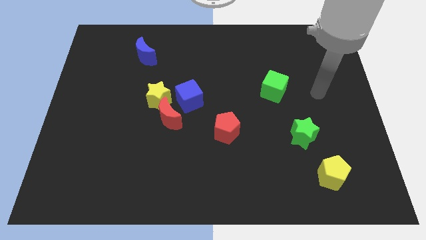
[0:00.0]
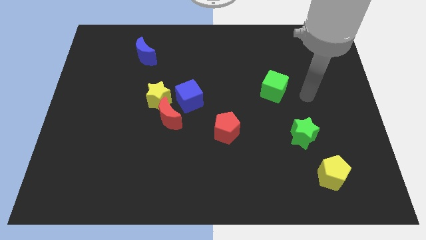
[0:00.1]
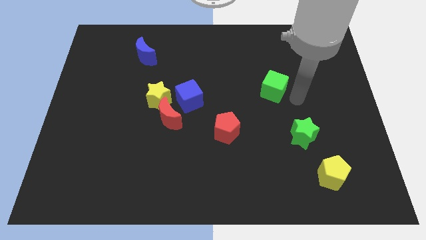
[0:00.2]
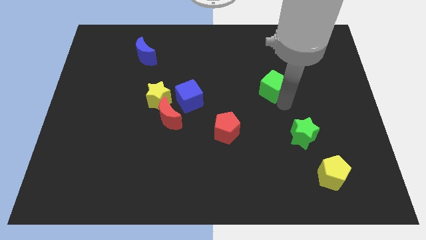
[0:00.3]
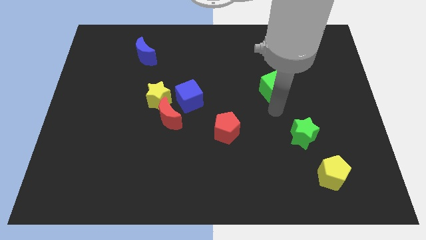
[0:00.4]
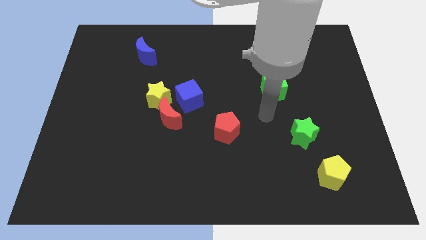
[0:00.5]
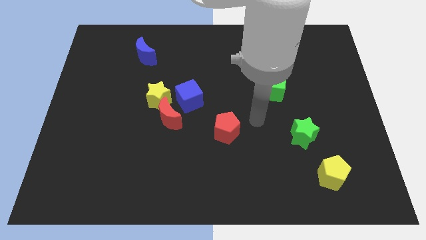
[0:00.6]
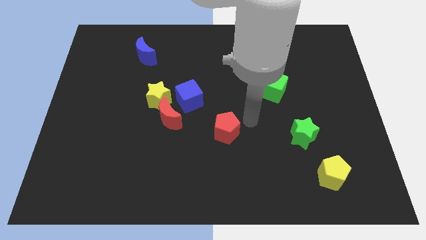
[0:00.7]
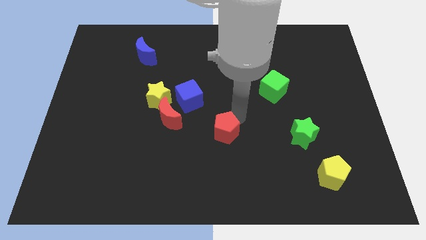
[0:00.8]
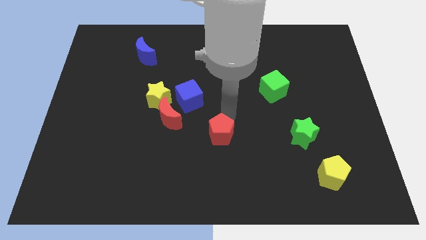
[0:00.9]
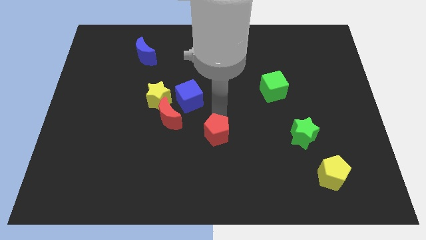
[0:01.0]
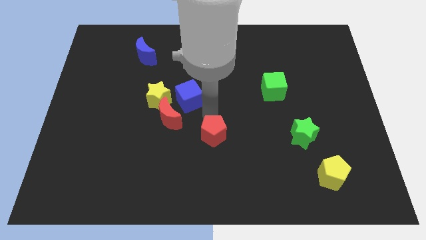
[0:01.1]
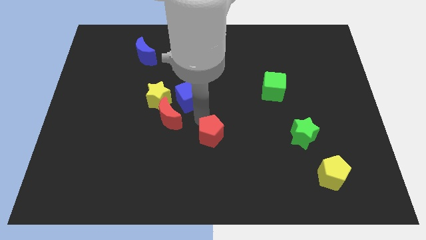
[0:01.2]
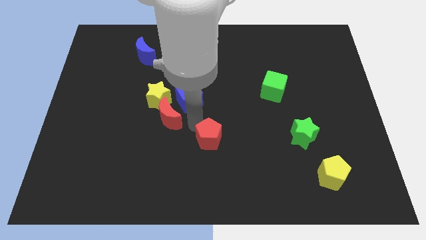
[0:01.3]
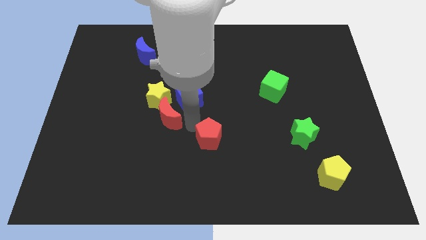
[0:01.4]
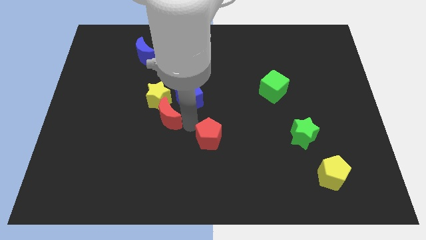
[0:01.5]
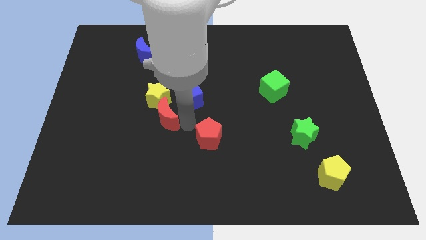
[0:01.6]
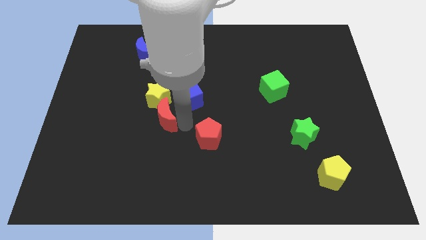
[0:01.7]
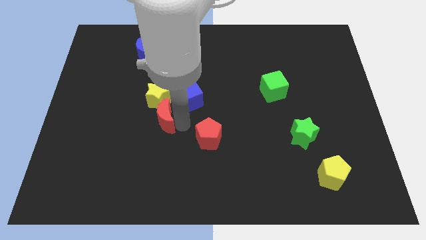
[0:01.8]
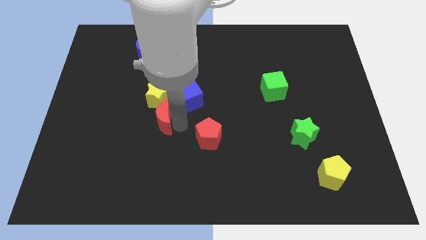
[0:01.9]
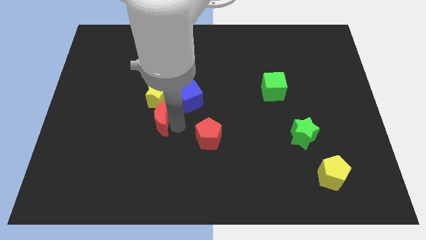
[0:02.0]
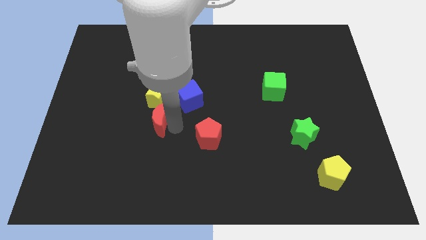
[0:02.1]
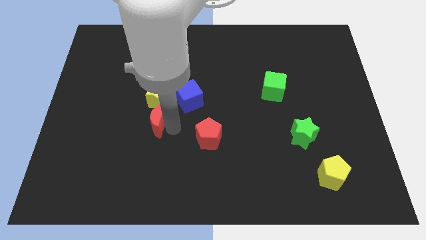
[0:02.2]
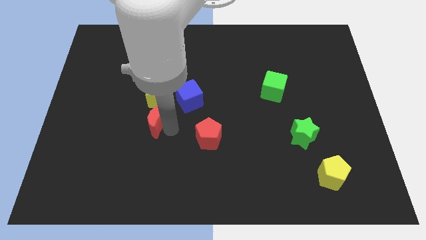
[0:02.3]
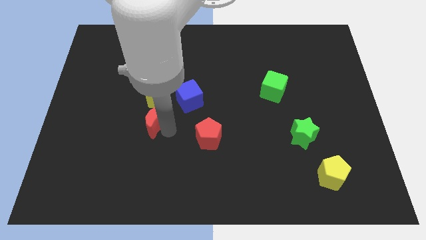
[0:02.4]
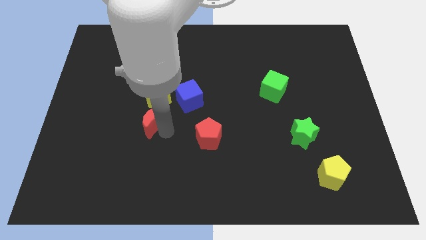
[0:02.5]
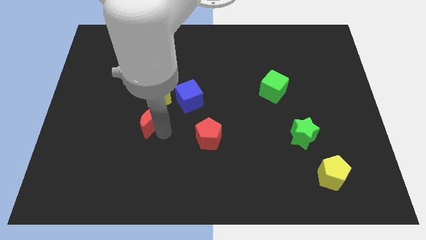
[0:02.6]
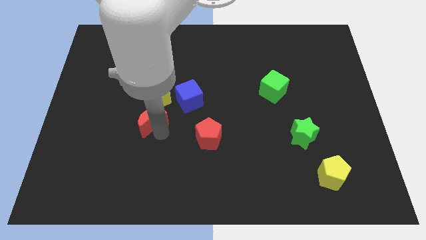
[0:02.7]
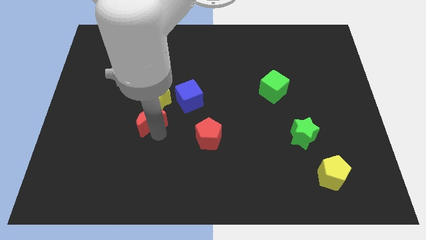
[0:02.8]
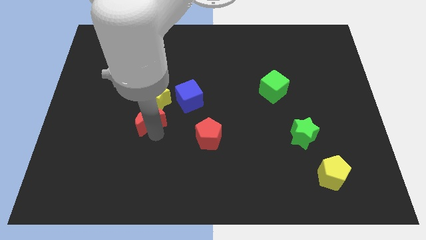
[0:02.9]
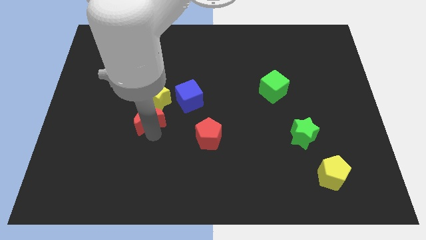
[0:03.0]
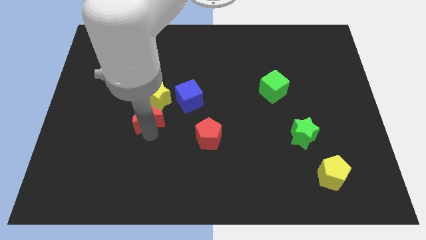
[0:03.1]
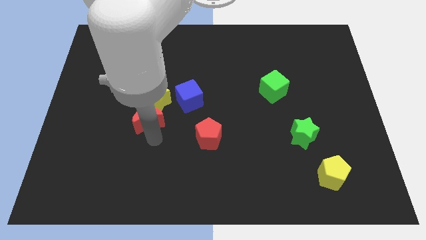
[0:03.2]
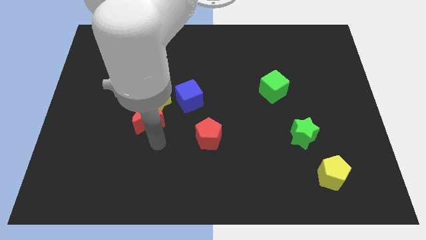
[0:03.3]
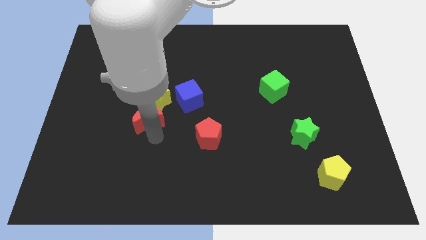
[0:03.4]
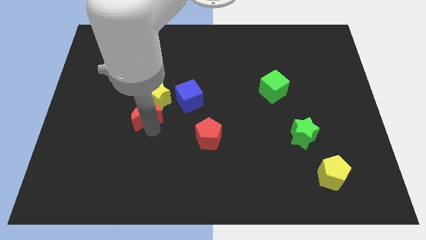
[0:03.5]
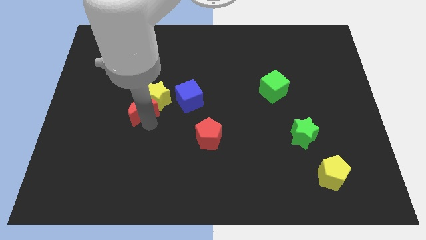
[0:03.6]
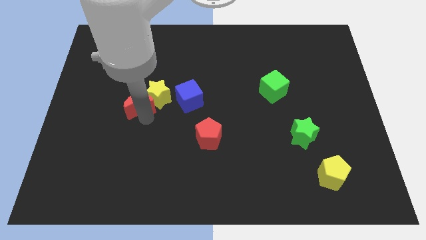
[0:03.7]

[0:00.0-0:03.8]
slide the red moon slightly up and then to the left

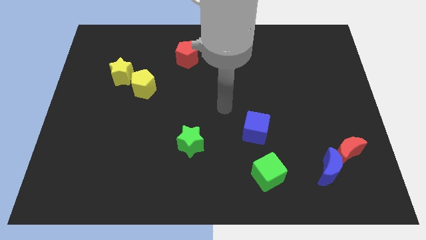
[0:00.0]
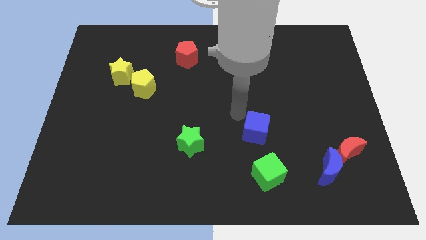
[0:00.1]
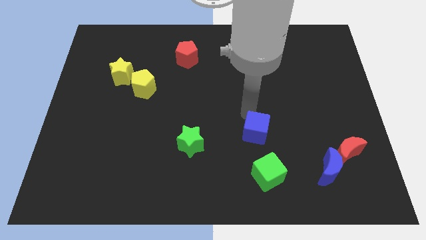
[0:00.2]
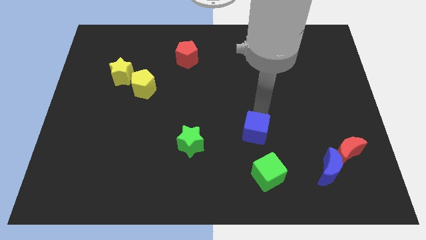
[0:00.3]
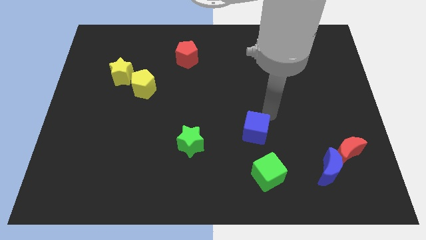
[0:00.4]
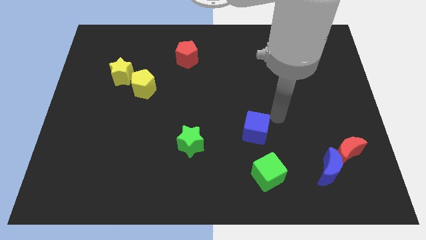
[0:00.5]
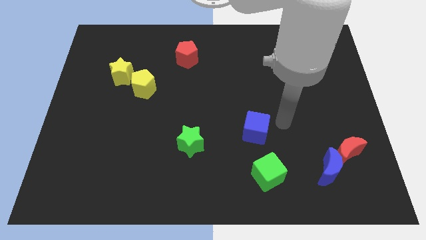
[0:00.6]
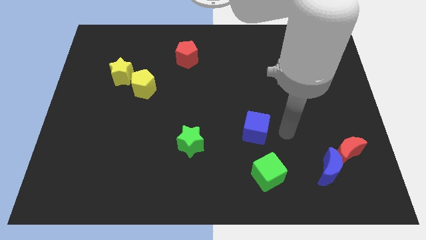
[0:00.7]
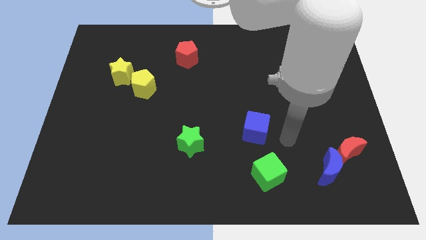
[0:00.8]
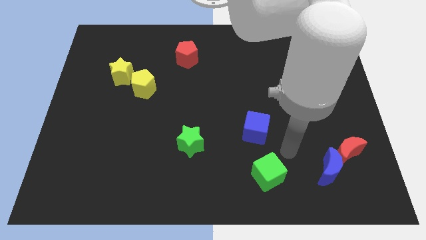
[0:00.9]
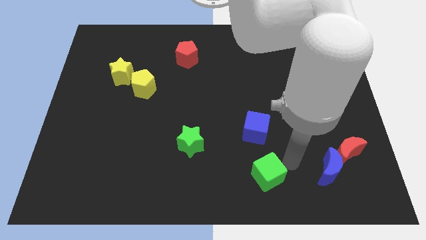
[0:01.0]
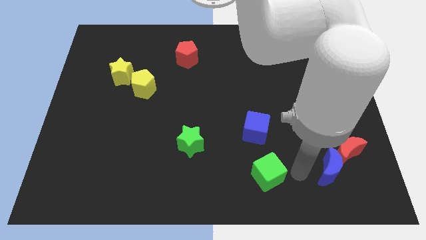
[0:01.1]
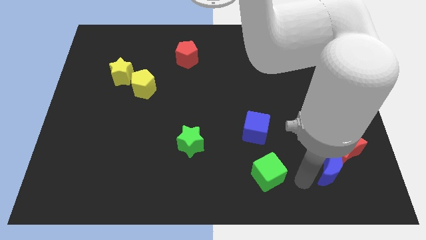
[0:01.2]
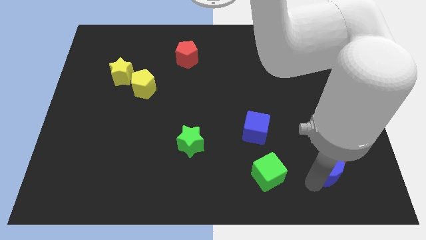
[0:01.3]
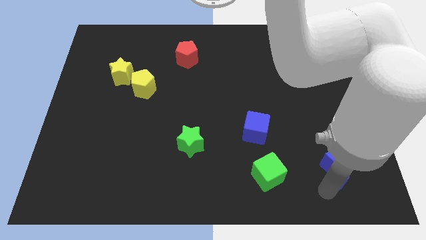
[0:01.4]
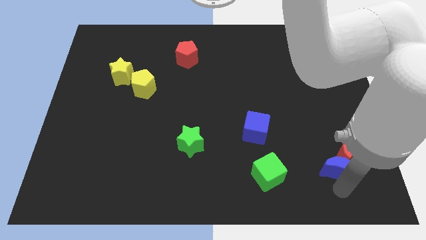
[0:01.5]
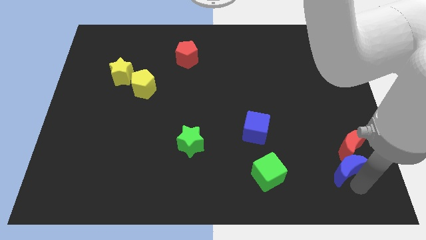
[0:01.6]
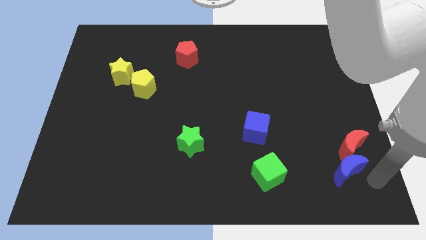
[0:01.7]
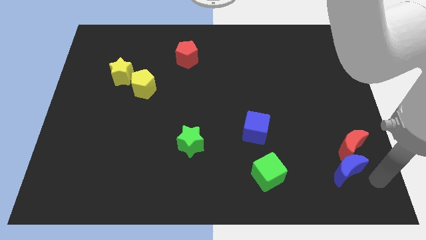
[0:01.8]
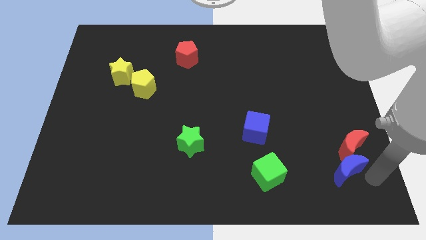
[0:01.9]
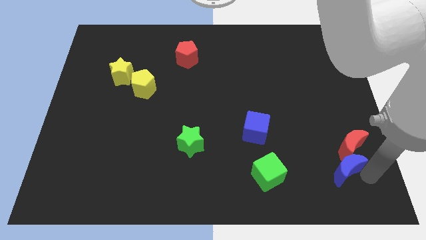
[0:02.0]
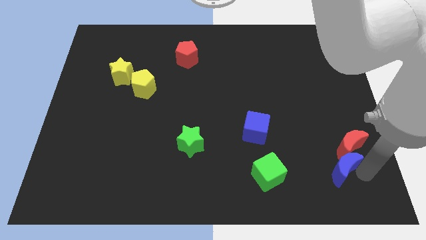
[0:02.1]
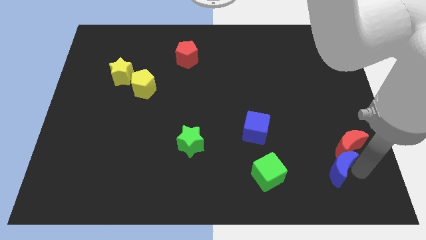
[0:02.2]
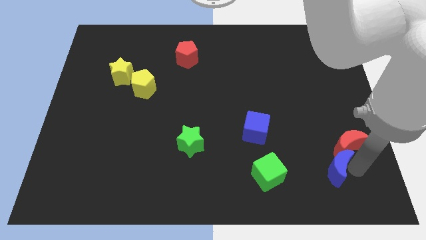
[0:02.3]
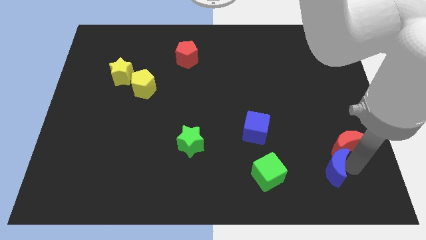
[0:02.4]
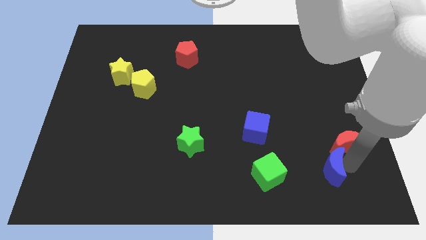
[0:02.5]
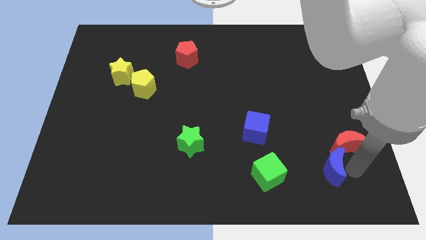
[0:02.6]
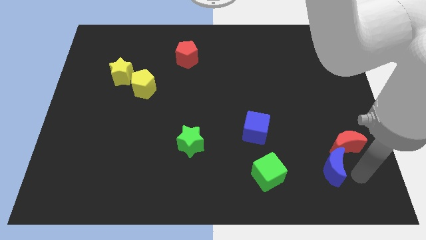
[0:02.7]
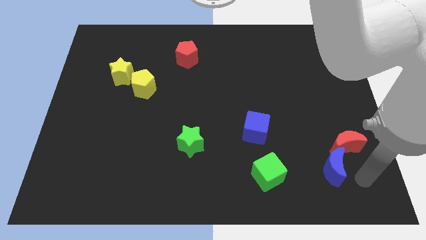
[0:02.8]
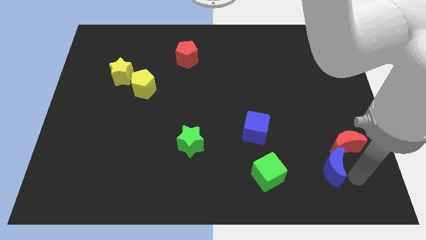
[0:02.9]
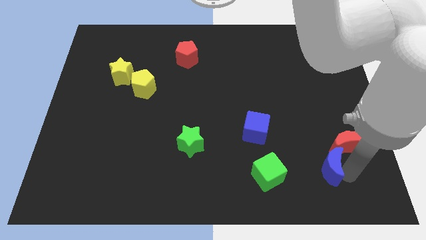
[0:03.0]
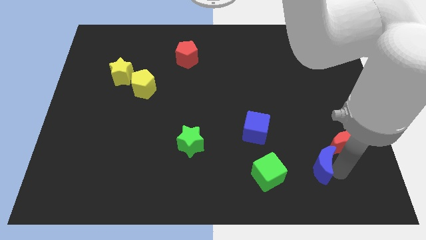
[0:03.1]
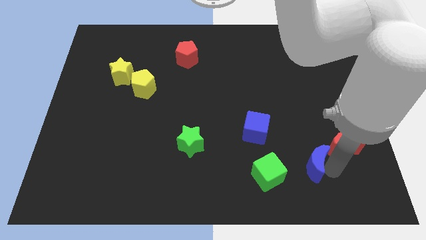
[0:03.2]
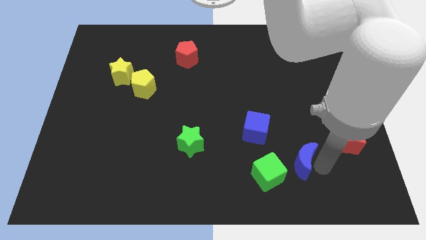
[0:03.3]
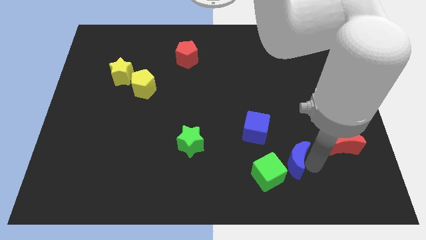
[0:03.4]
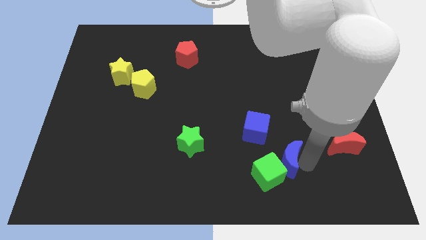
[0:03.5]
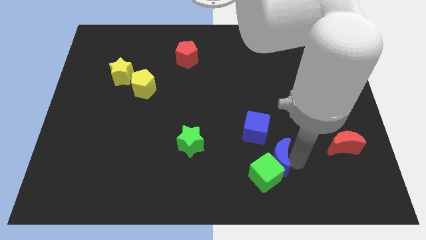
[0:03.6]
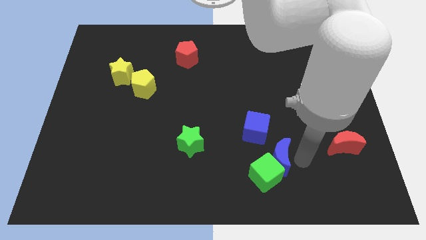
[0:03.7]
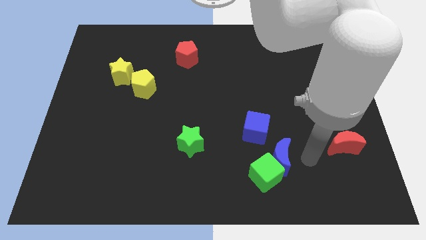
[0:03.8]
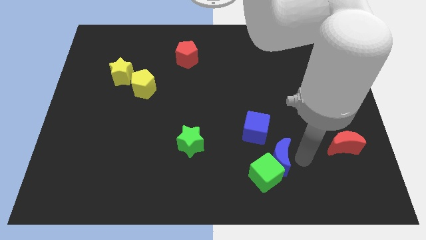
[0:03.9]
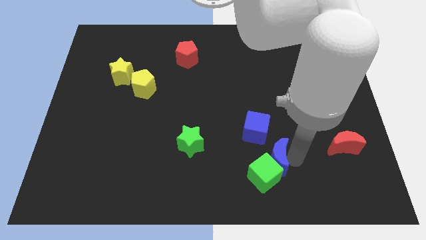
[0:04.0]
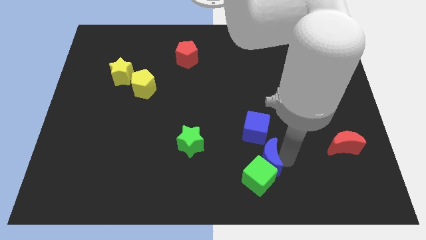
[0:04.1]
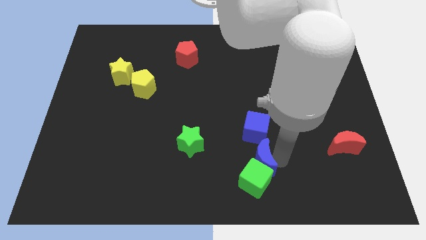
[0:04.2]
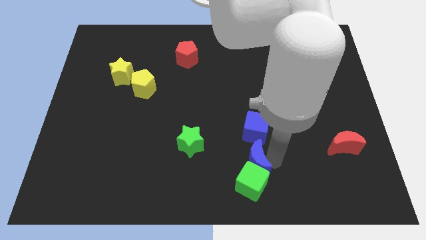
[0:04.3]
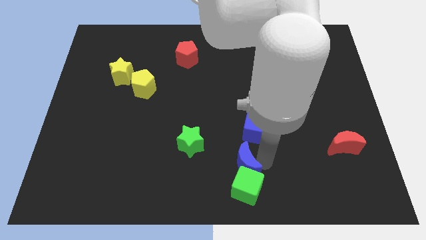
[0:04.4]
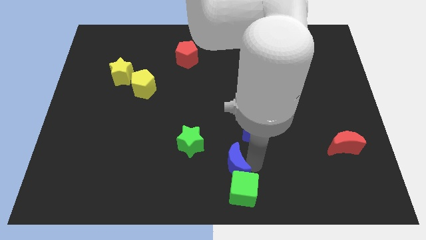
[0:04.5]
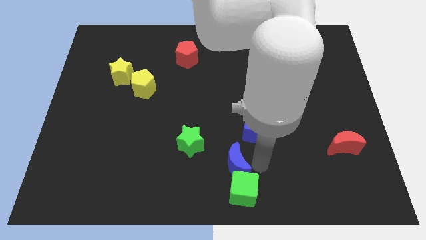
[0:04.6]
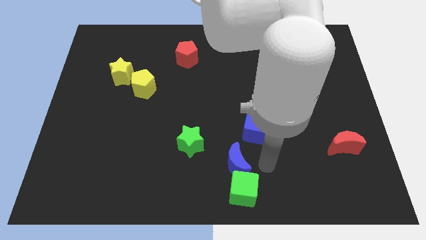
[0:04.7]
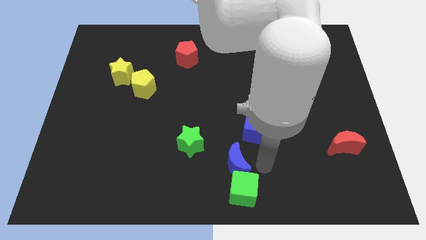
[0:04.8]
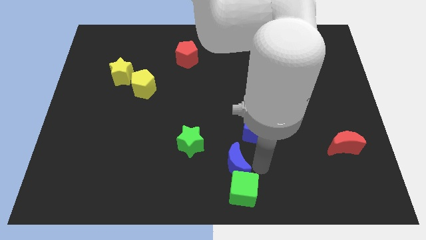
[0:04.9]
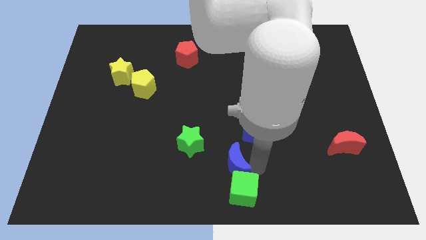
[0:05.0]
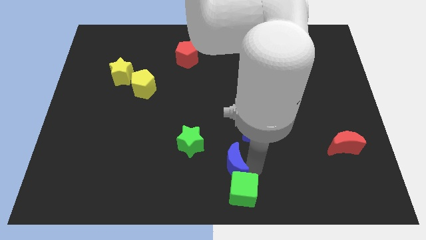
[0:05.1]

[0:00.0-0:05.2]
push the blue moon left
